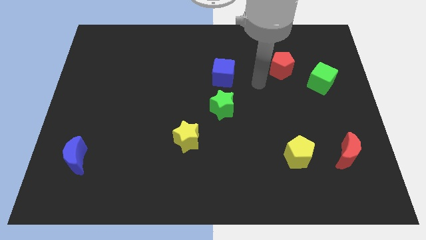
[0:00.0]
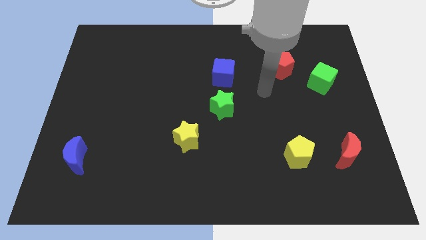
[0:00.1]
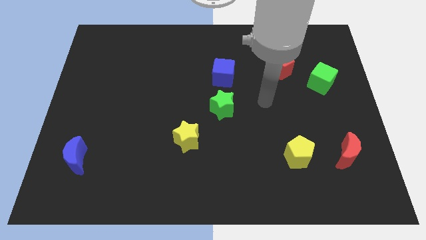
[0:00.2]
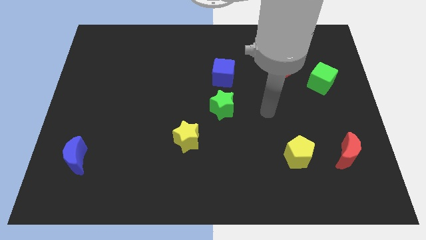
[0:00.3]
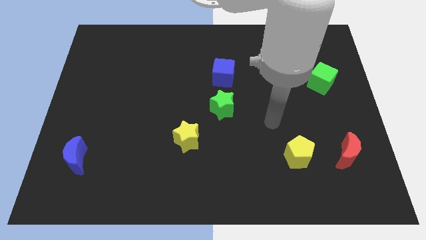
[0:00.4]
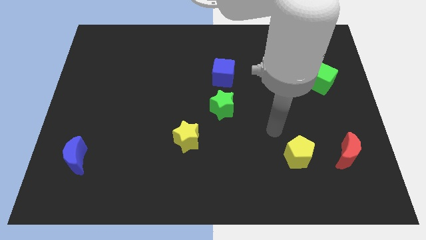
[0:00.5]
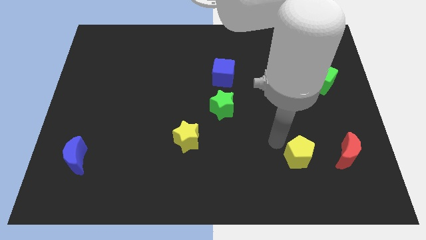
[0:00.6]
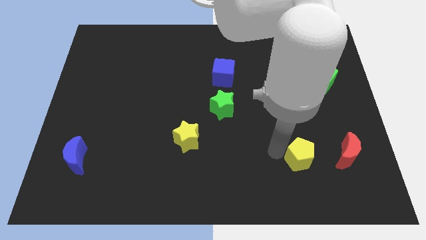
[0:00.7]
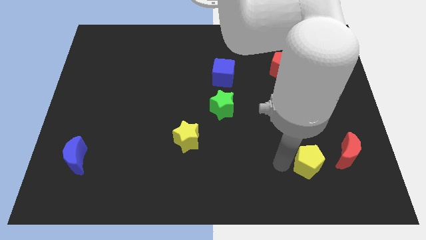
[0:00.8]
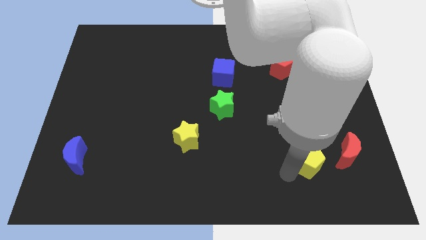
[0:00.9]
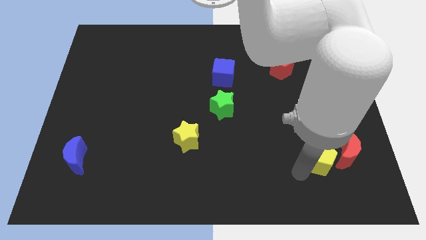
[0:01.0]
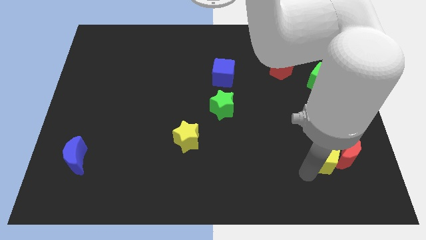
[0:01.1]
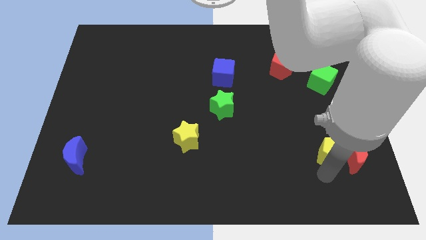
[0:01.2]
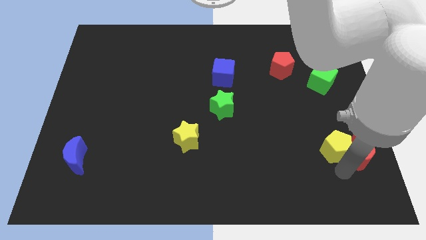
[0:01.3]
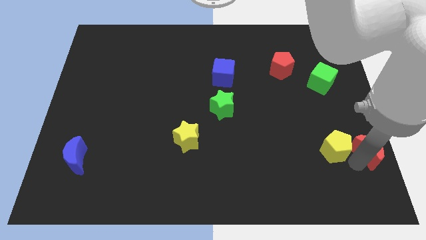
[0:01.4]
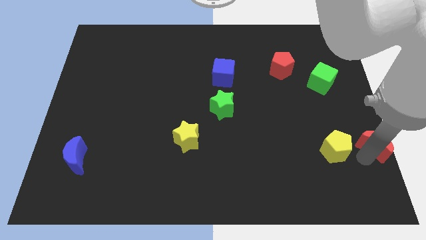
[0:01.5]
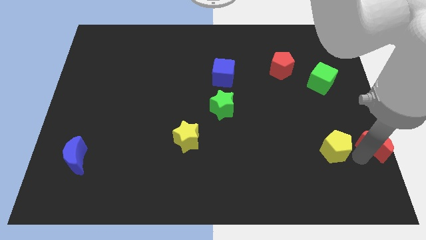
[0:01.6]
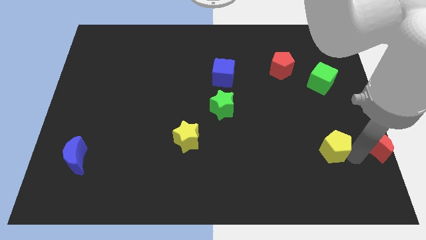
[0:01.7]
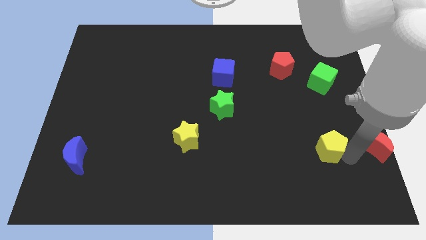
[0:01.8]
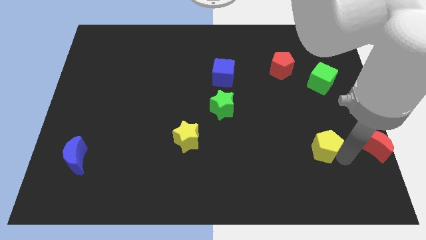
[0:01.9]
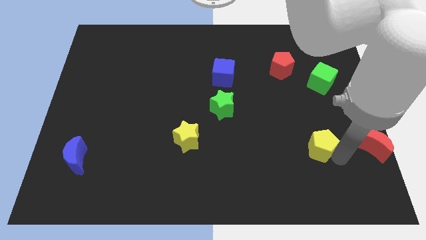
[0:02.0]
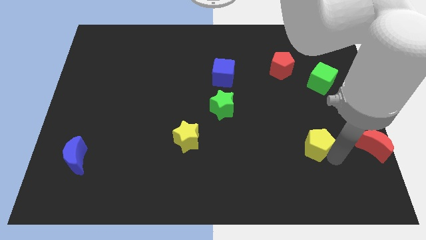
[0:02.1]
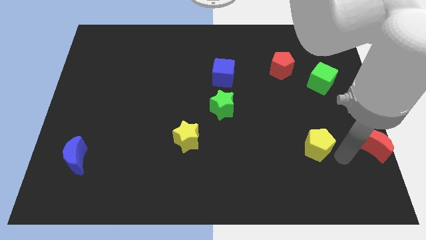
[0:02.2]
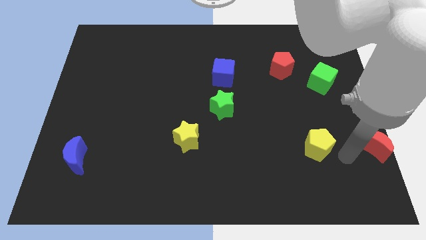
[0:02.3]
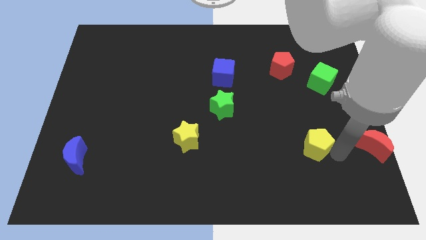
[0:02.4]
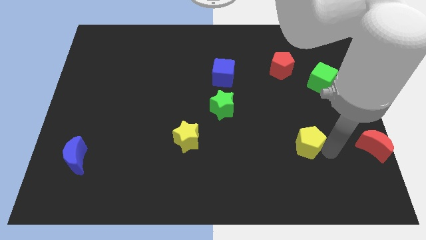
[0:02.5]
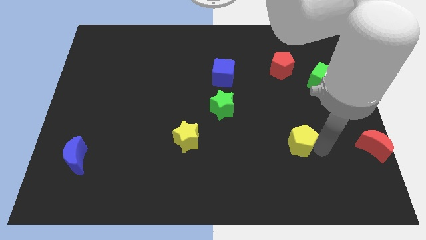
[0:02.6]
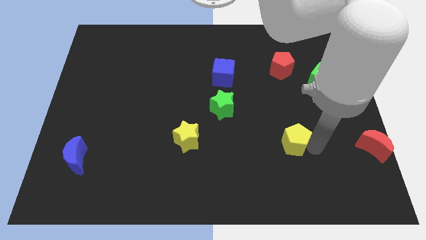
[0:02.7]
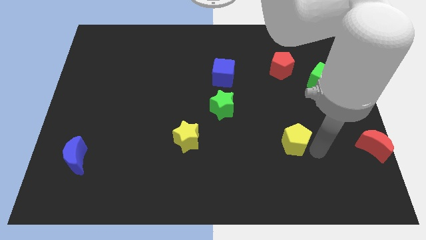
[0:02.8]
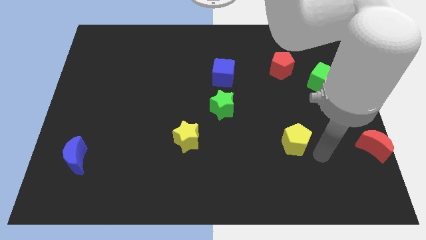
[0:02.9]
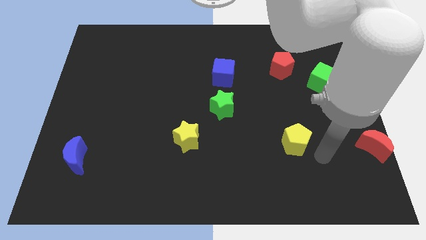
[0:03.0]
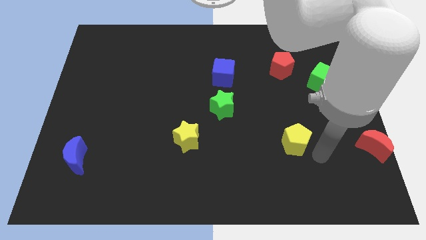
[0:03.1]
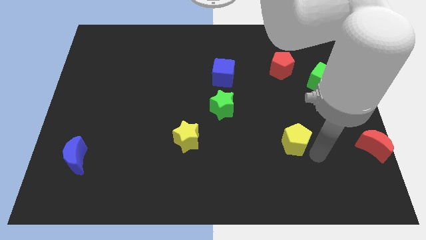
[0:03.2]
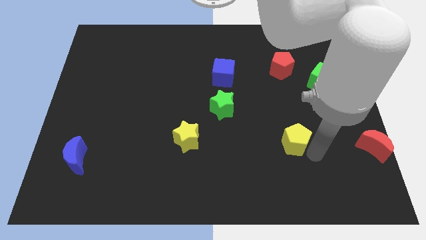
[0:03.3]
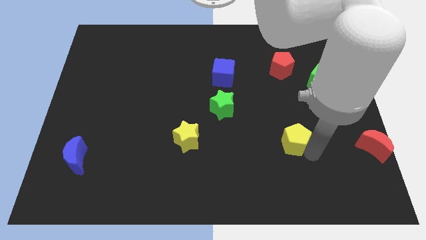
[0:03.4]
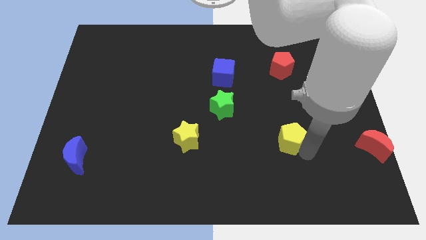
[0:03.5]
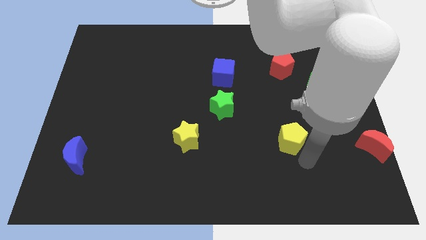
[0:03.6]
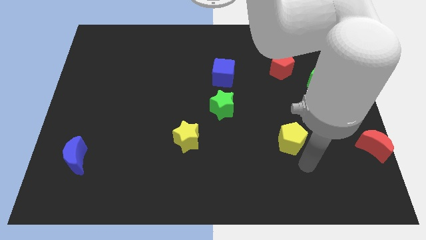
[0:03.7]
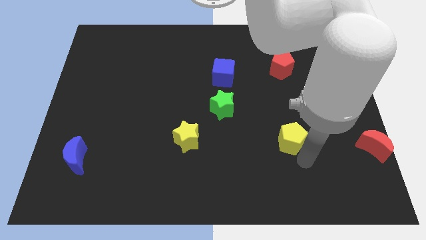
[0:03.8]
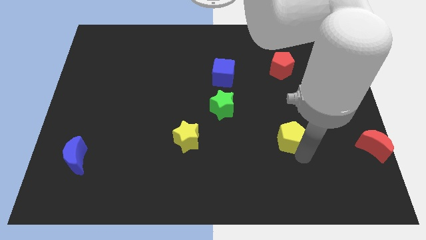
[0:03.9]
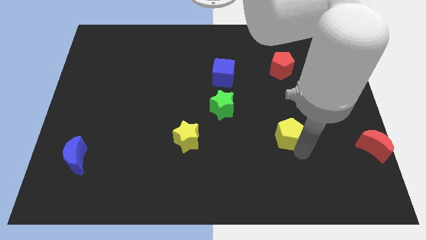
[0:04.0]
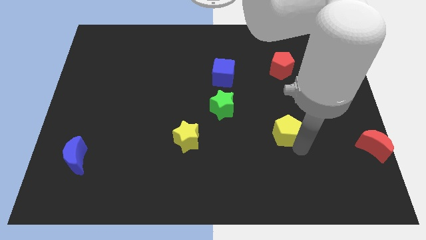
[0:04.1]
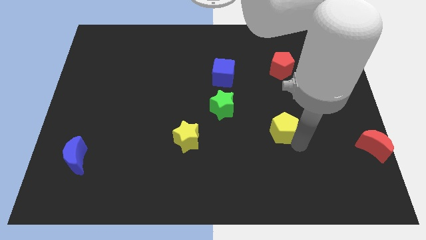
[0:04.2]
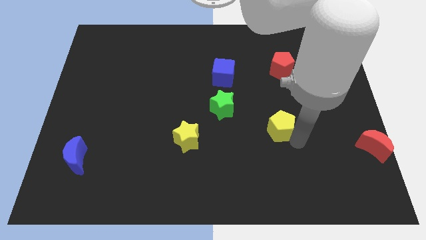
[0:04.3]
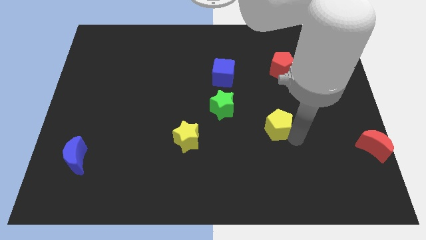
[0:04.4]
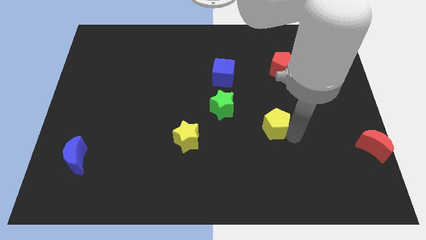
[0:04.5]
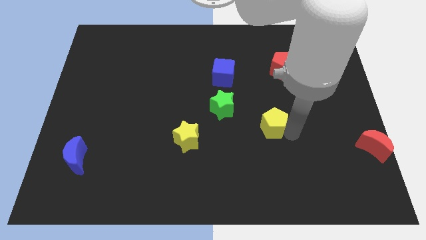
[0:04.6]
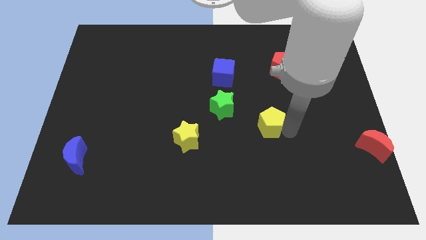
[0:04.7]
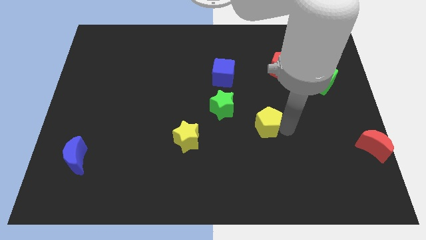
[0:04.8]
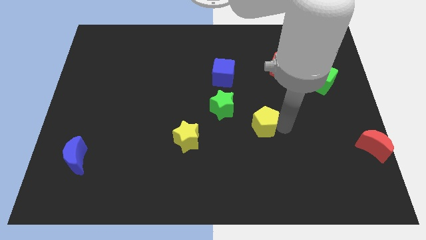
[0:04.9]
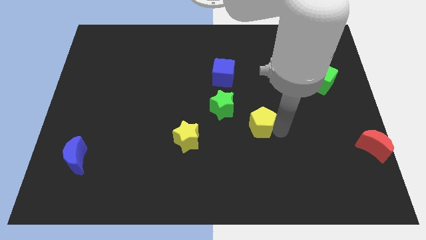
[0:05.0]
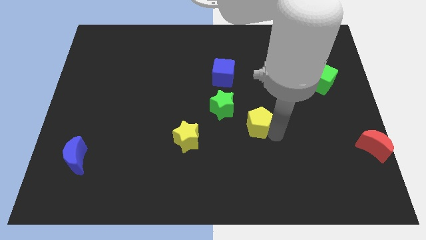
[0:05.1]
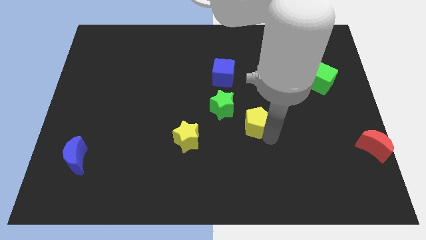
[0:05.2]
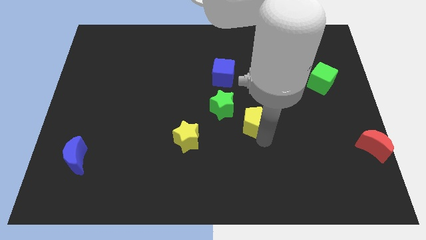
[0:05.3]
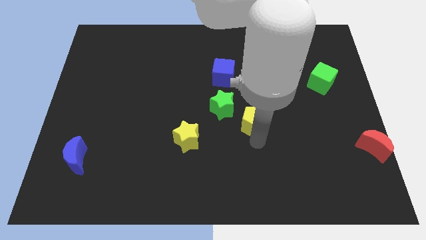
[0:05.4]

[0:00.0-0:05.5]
slide the yellow pentagon just right of the green star

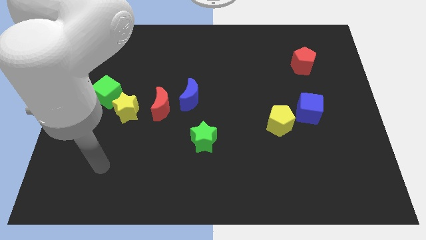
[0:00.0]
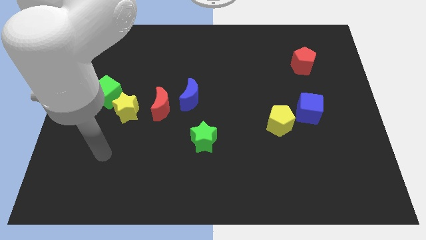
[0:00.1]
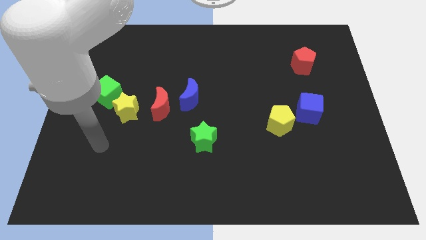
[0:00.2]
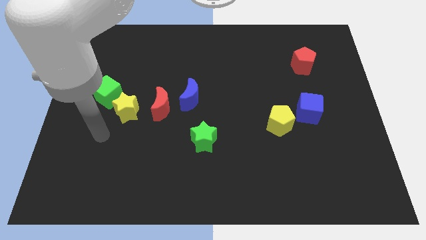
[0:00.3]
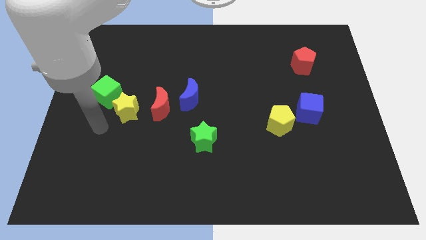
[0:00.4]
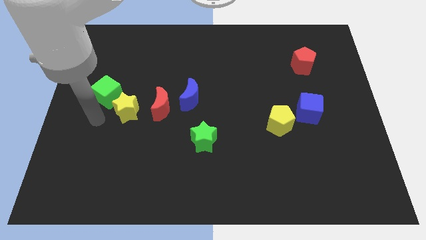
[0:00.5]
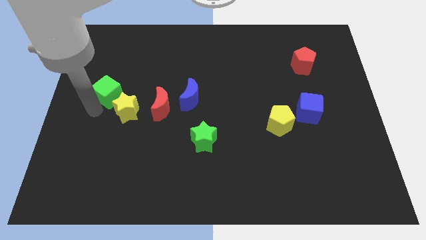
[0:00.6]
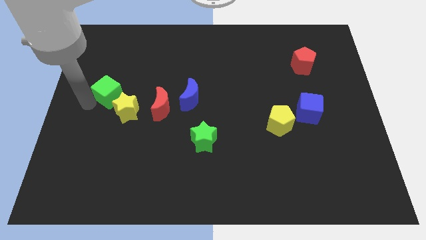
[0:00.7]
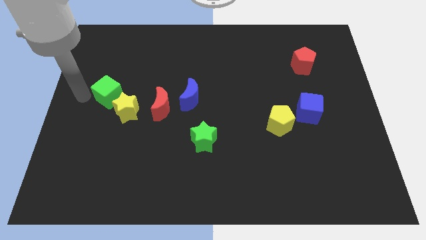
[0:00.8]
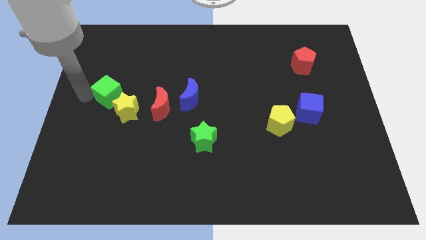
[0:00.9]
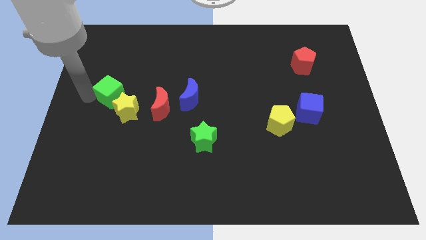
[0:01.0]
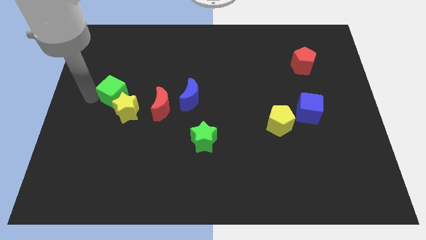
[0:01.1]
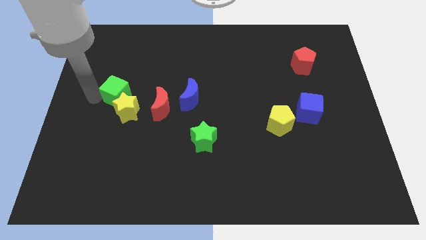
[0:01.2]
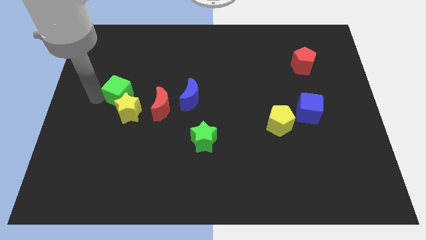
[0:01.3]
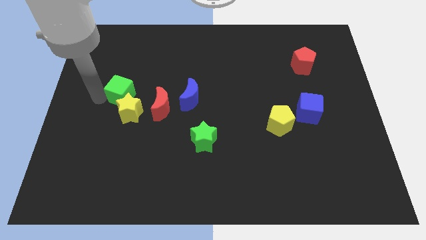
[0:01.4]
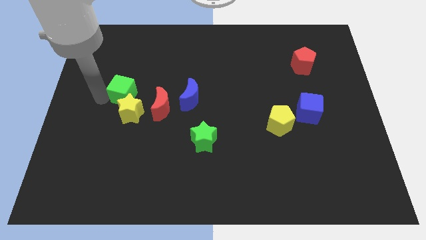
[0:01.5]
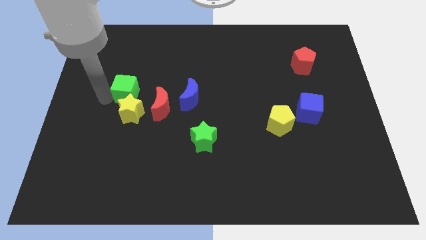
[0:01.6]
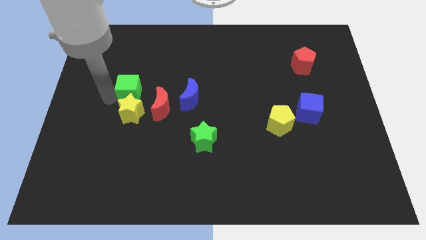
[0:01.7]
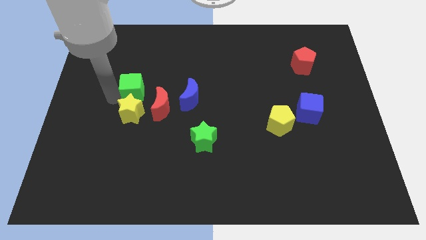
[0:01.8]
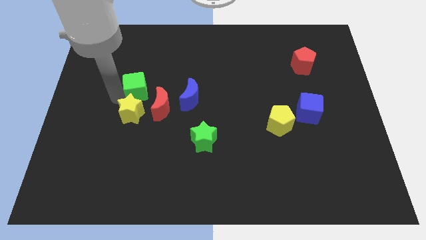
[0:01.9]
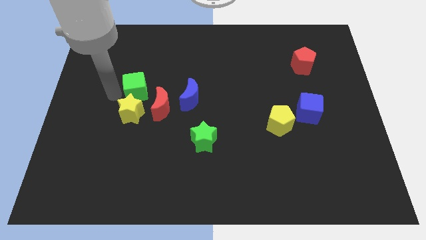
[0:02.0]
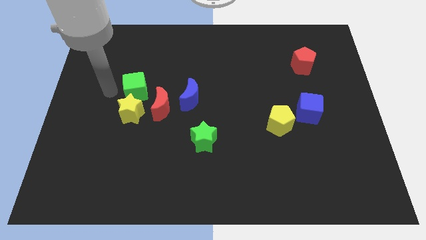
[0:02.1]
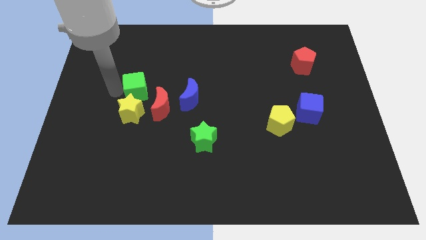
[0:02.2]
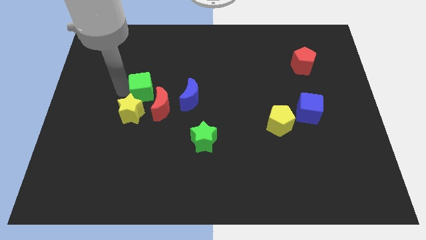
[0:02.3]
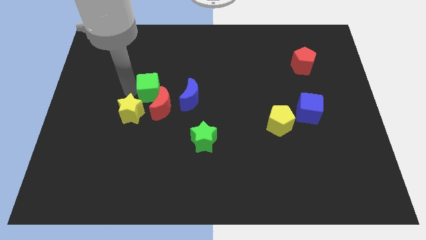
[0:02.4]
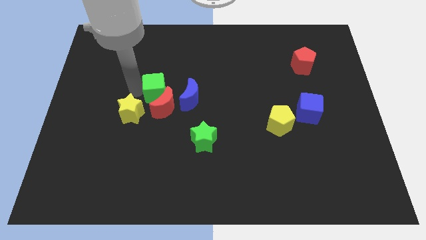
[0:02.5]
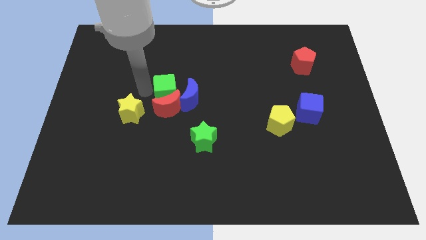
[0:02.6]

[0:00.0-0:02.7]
push the green cube diagonally up and to the right of the red moon
